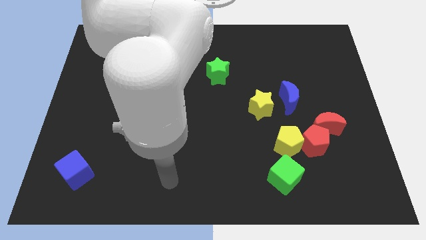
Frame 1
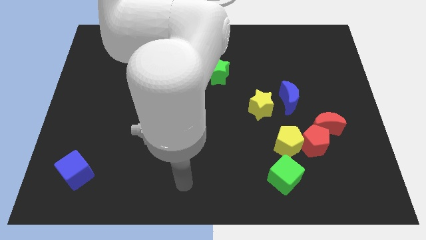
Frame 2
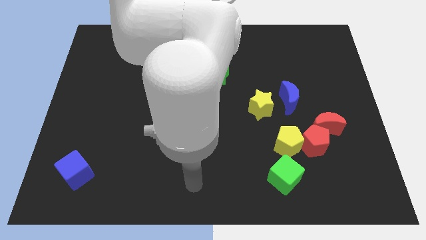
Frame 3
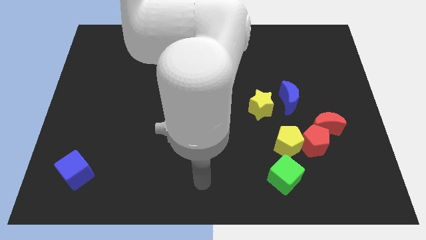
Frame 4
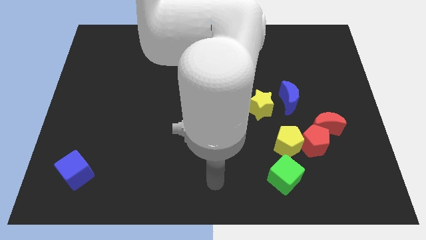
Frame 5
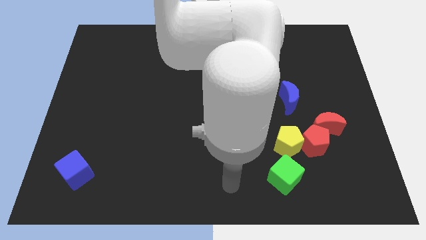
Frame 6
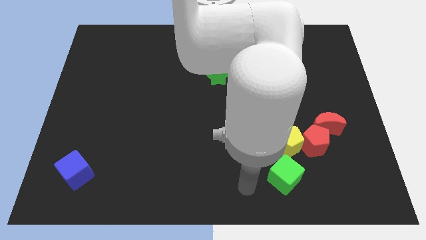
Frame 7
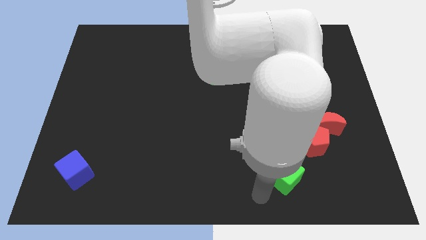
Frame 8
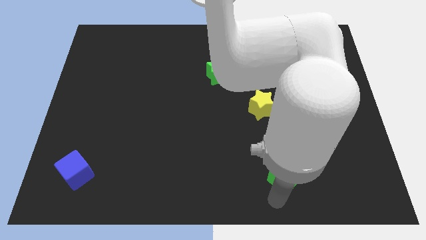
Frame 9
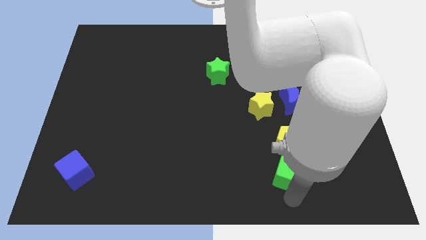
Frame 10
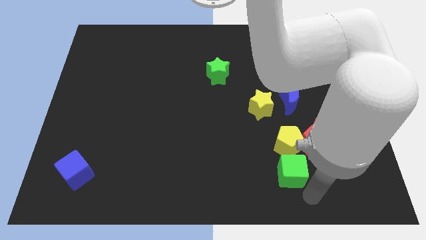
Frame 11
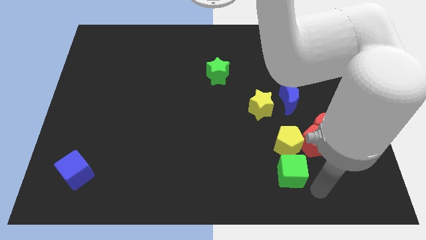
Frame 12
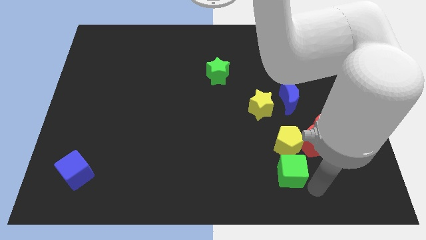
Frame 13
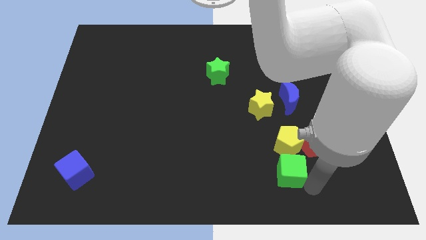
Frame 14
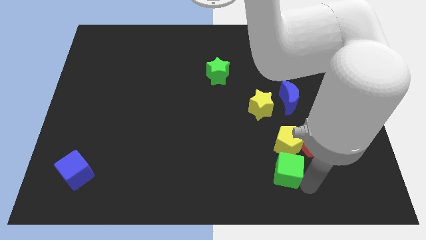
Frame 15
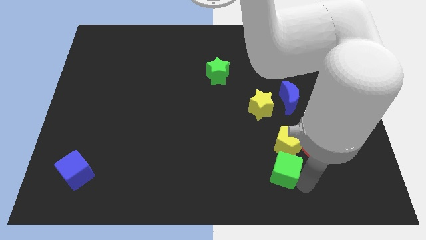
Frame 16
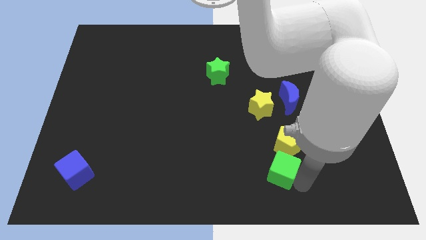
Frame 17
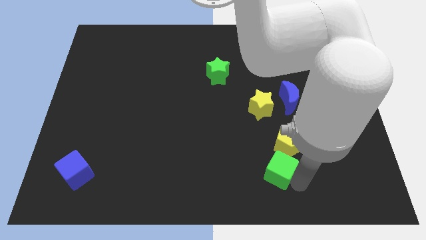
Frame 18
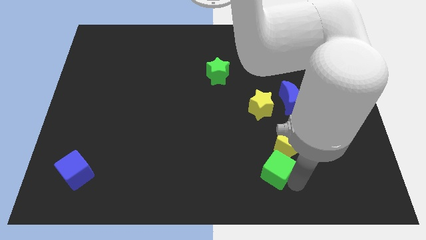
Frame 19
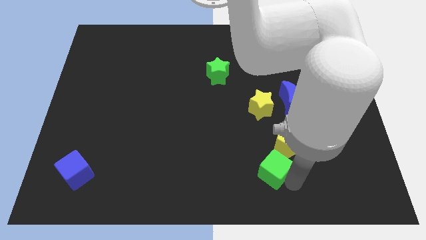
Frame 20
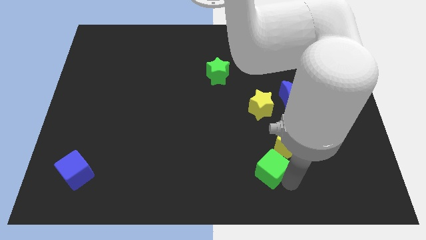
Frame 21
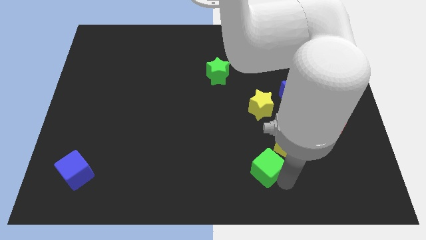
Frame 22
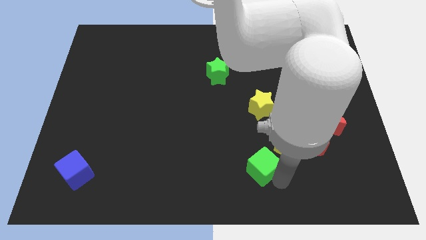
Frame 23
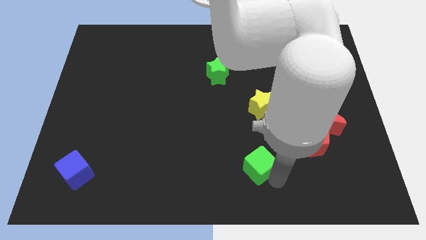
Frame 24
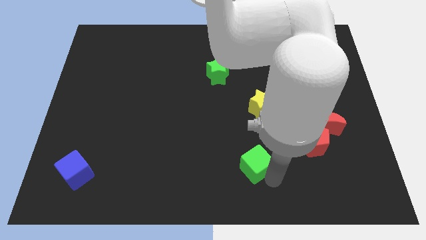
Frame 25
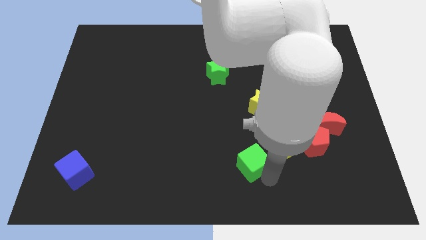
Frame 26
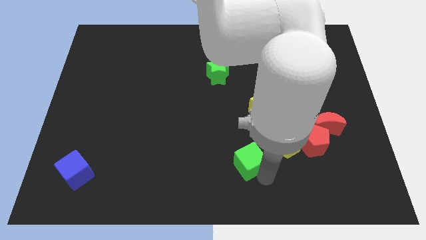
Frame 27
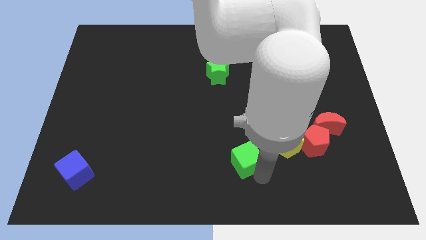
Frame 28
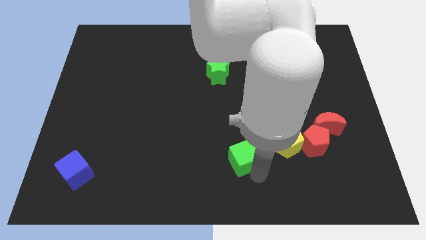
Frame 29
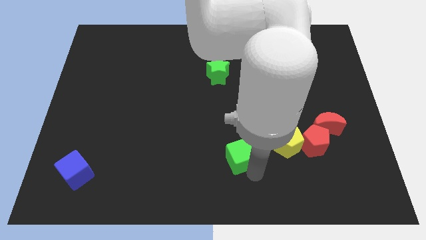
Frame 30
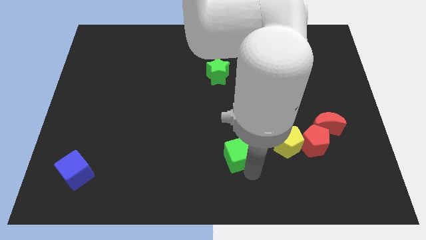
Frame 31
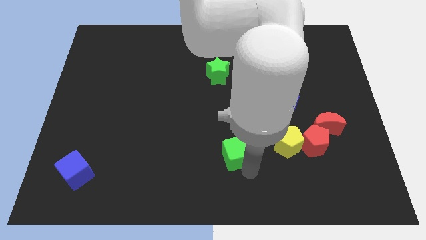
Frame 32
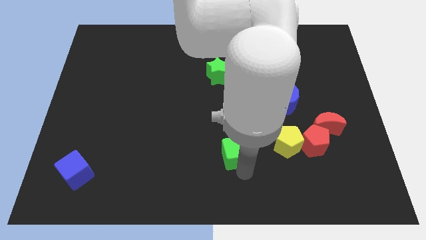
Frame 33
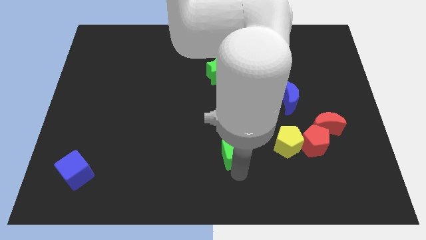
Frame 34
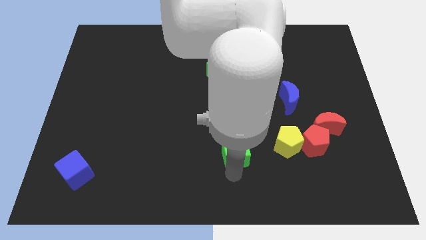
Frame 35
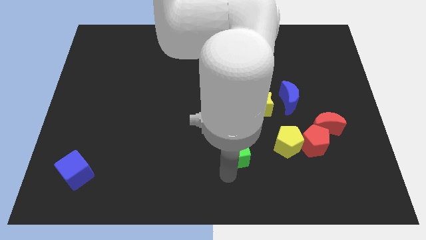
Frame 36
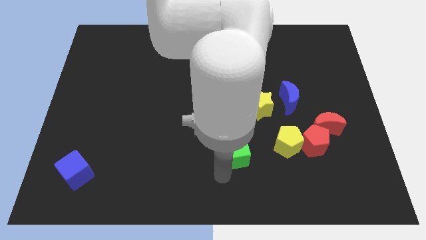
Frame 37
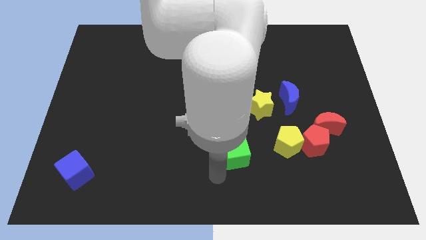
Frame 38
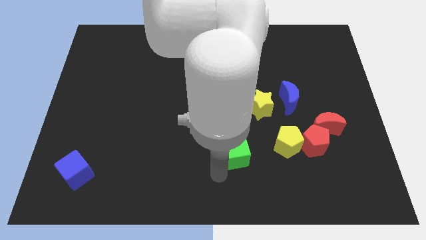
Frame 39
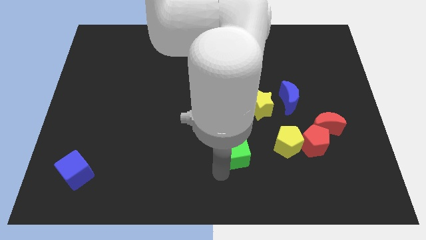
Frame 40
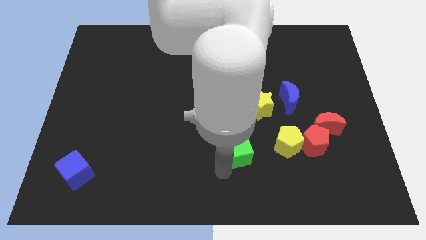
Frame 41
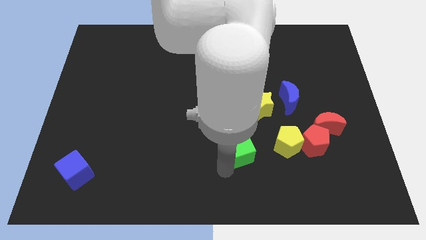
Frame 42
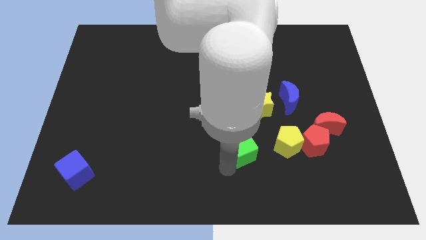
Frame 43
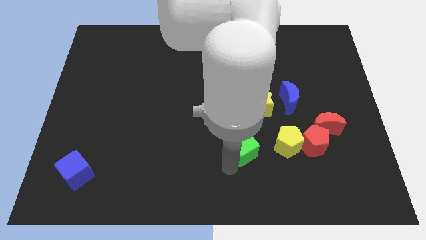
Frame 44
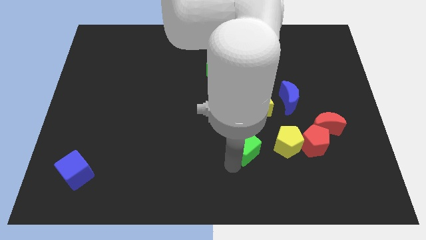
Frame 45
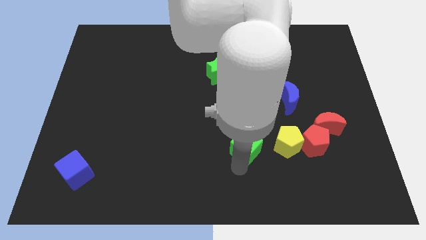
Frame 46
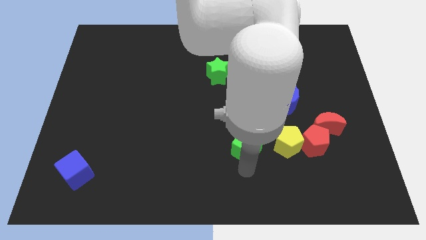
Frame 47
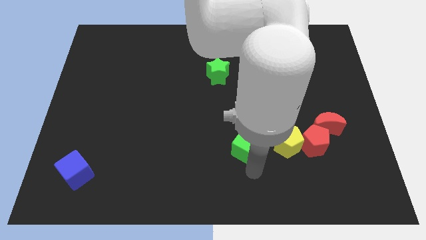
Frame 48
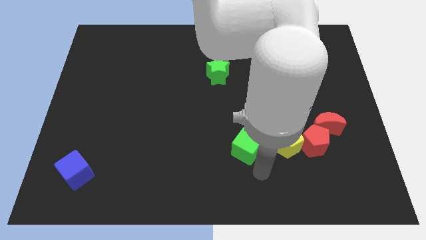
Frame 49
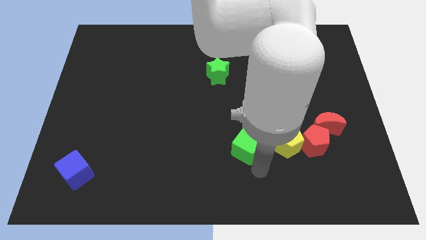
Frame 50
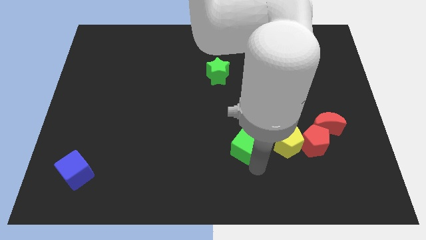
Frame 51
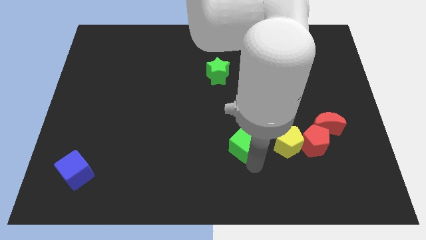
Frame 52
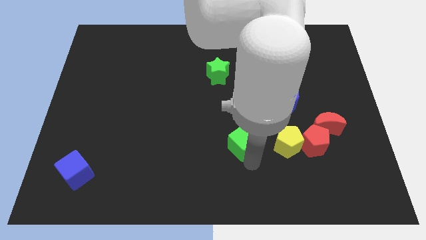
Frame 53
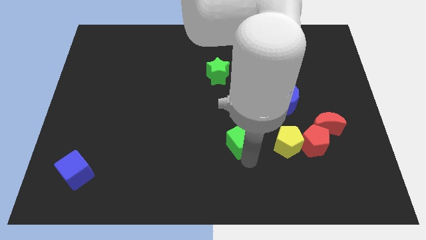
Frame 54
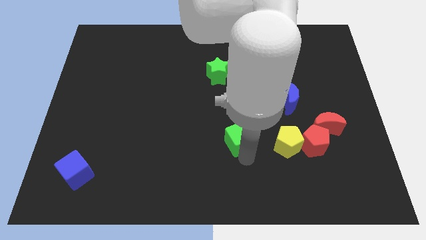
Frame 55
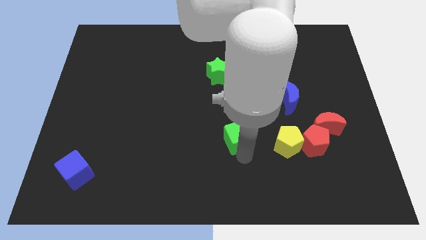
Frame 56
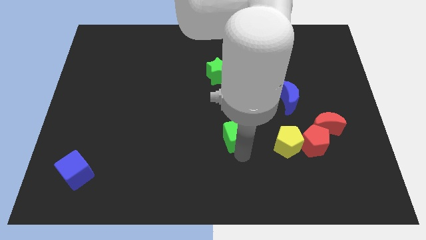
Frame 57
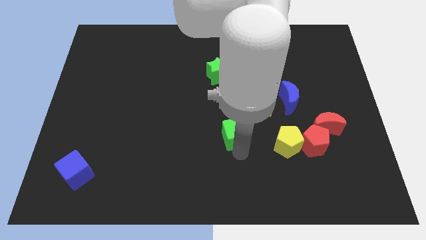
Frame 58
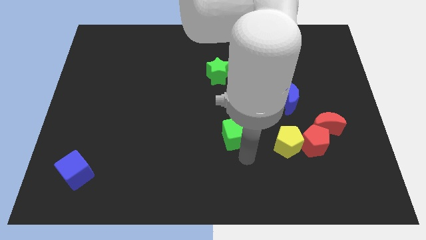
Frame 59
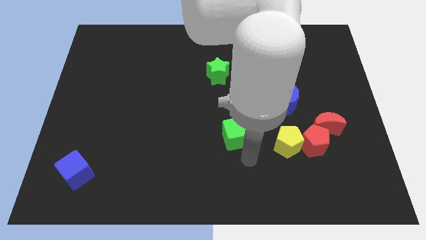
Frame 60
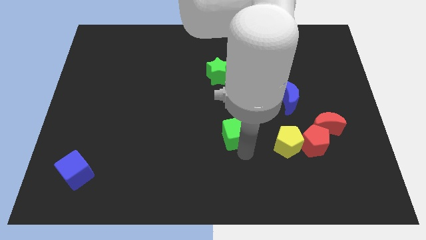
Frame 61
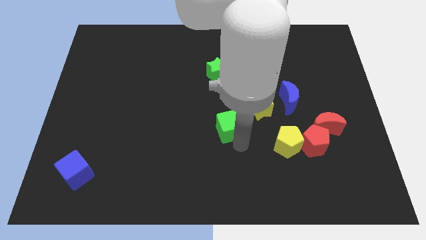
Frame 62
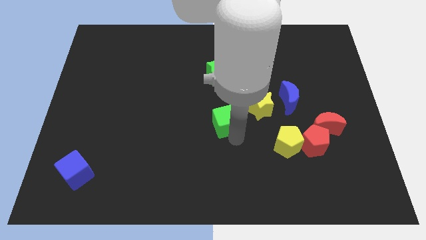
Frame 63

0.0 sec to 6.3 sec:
slide the green cube to the bottom of the green star
